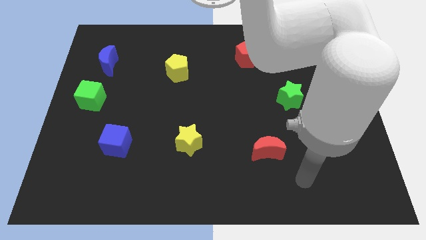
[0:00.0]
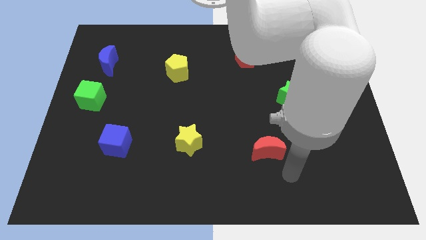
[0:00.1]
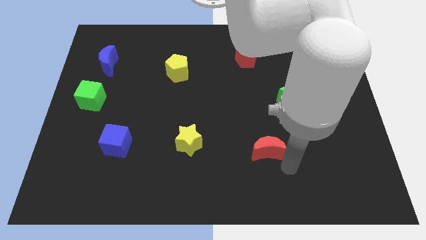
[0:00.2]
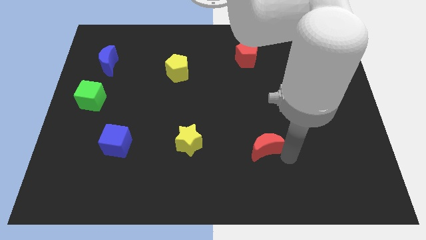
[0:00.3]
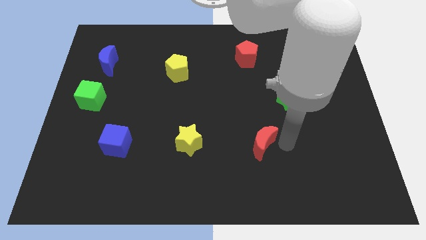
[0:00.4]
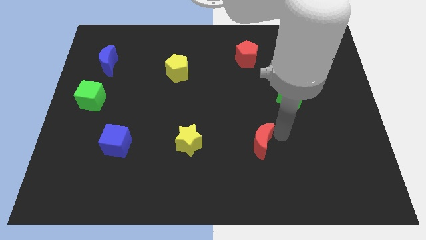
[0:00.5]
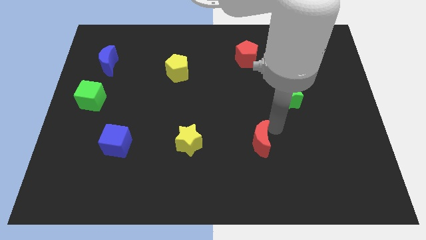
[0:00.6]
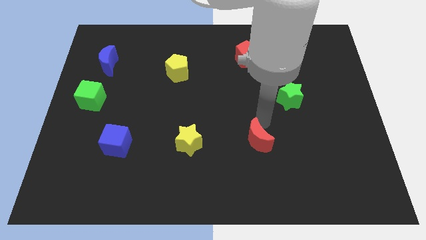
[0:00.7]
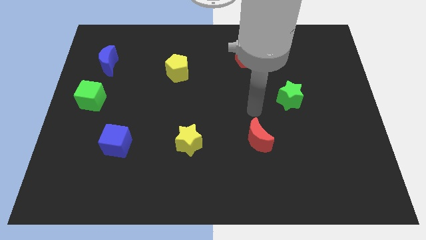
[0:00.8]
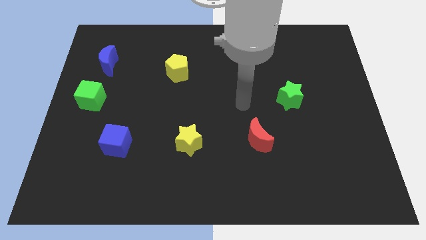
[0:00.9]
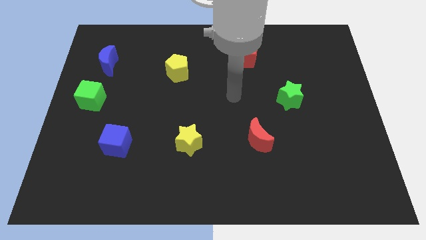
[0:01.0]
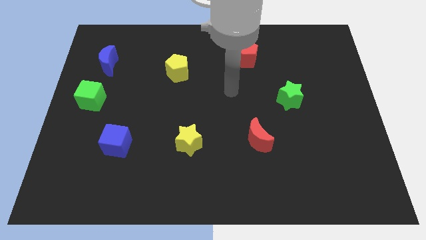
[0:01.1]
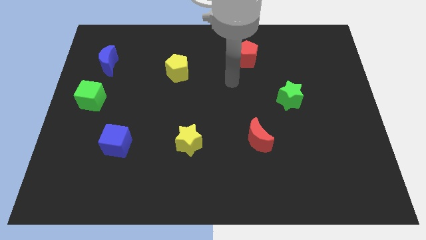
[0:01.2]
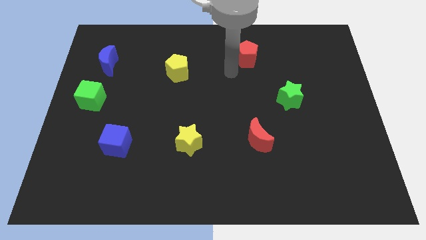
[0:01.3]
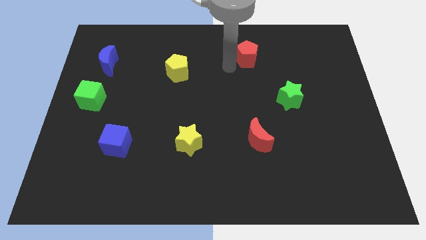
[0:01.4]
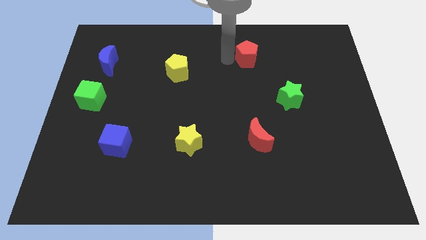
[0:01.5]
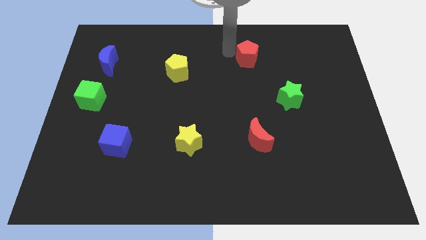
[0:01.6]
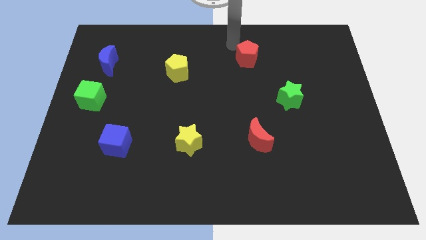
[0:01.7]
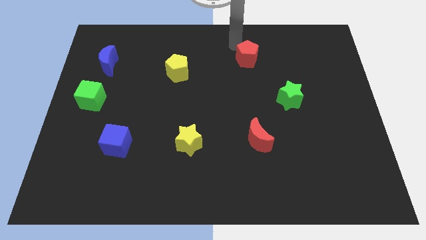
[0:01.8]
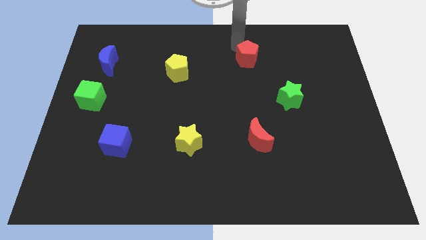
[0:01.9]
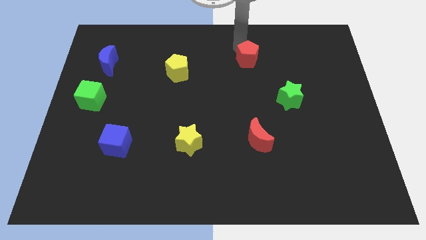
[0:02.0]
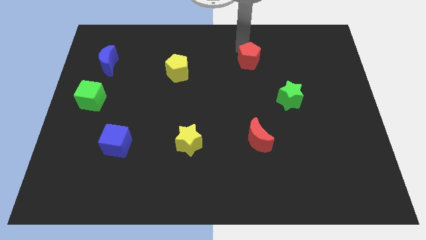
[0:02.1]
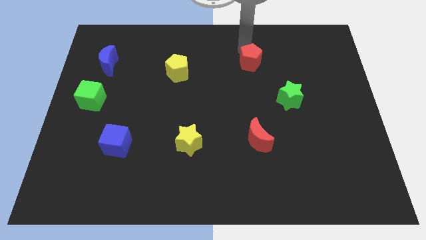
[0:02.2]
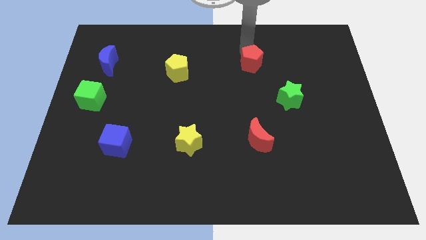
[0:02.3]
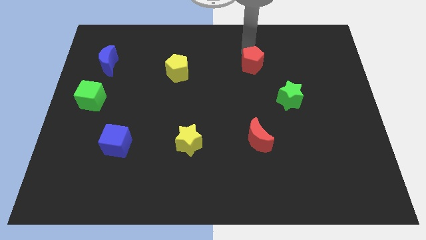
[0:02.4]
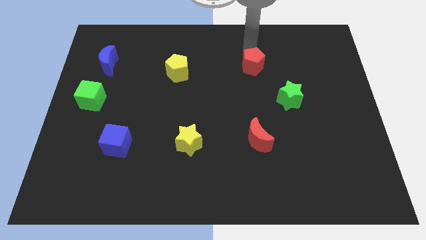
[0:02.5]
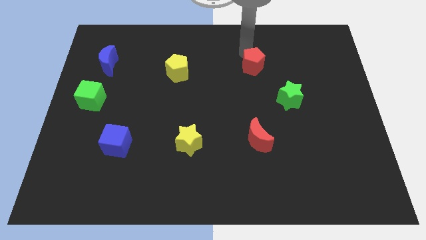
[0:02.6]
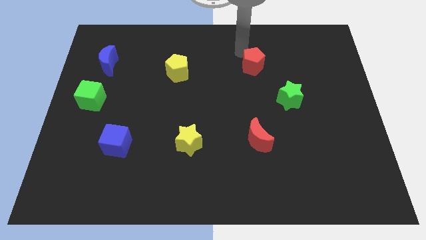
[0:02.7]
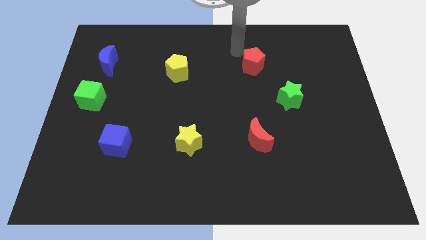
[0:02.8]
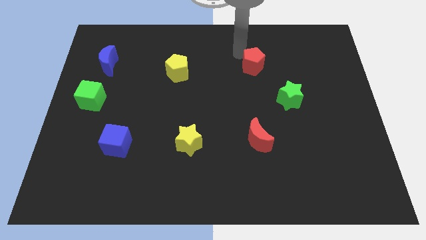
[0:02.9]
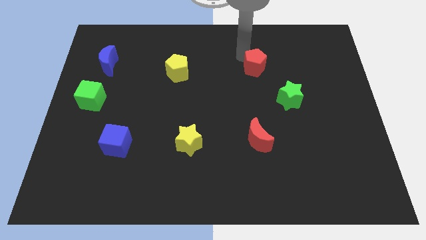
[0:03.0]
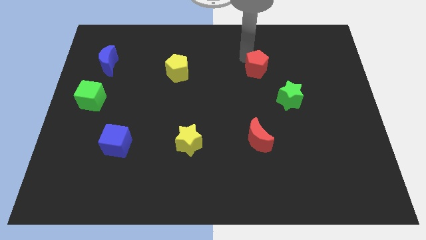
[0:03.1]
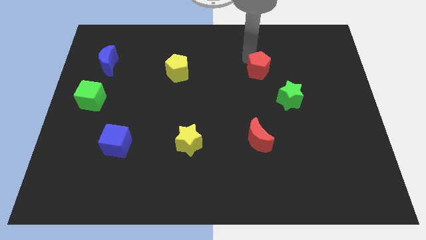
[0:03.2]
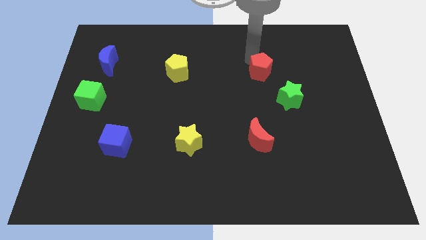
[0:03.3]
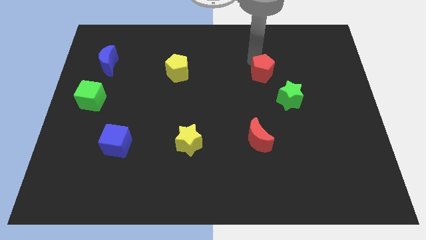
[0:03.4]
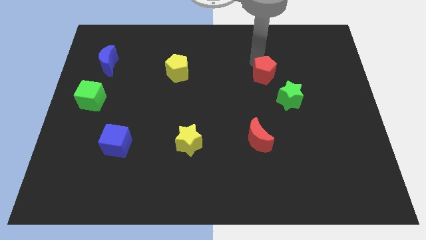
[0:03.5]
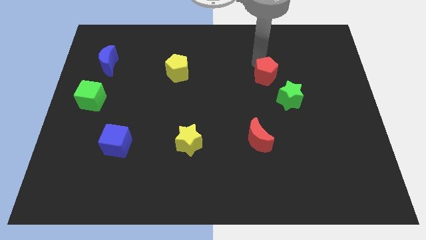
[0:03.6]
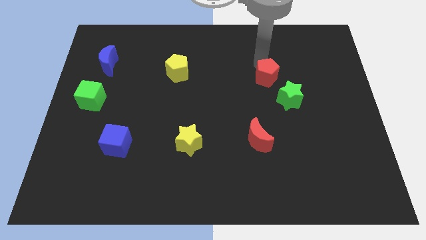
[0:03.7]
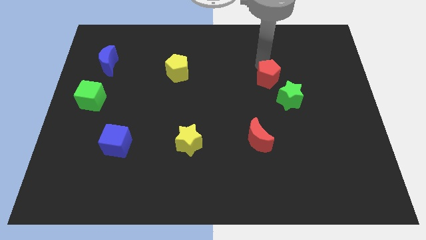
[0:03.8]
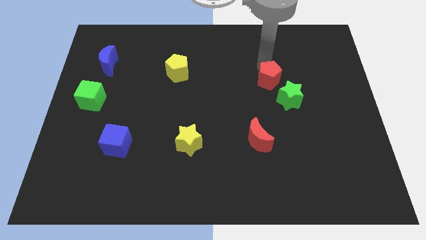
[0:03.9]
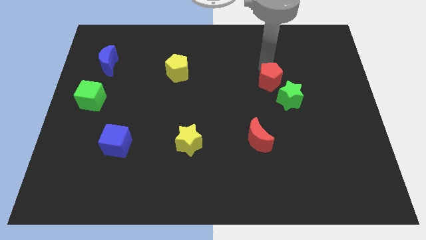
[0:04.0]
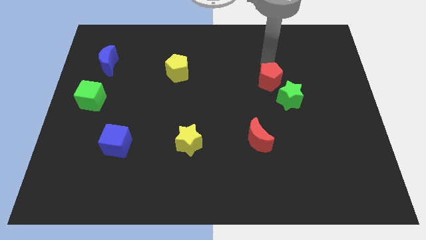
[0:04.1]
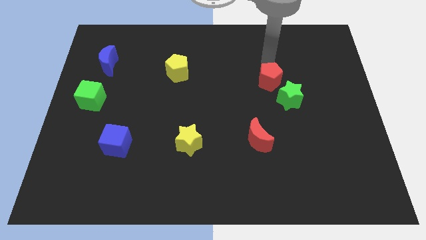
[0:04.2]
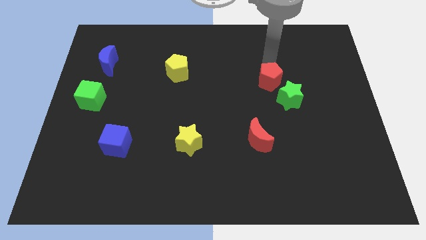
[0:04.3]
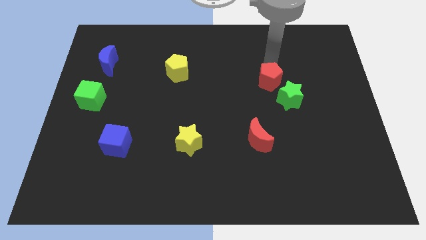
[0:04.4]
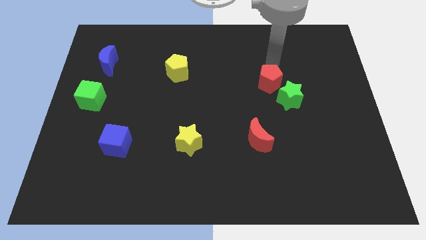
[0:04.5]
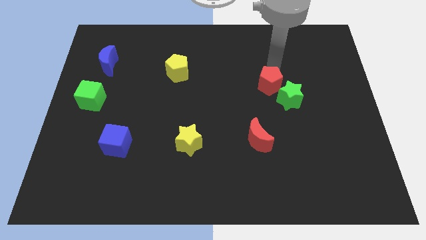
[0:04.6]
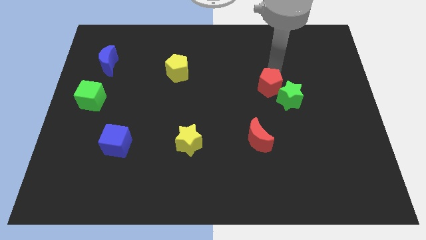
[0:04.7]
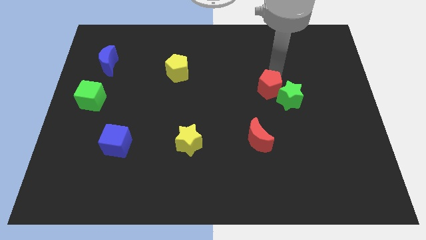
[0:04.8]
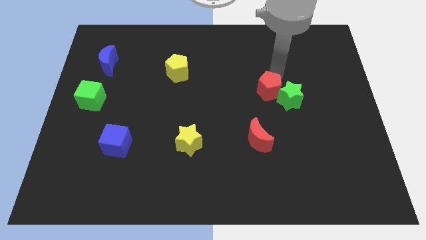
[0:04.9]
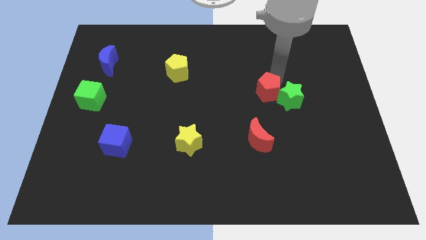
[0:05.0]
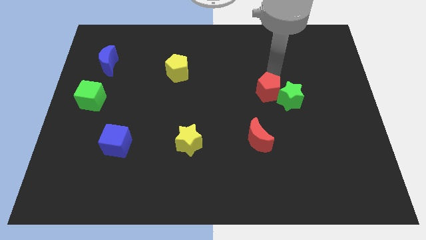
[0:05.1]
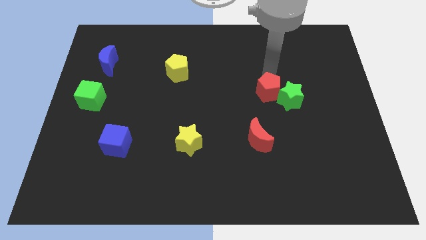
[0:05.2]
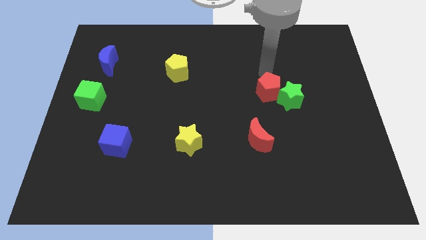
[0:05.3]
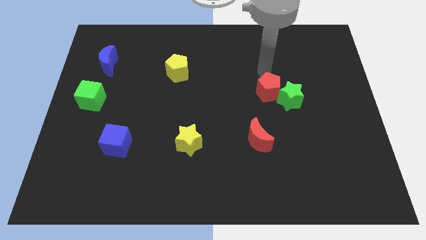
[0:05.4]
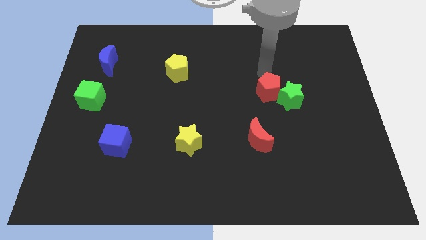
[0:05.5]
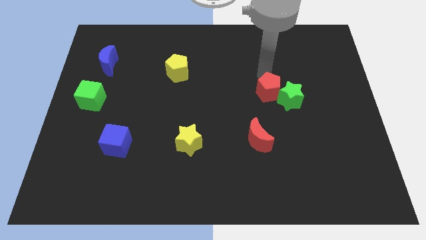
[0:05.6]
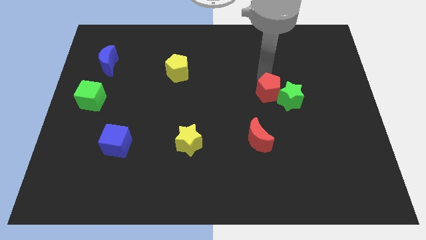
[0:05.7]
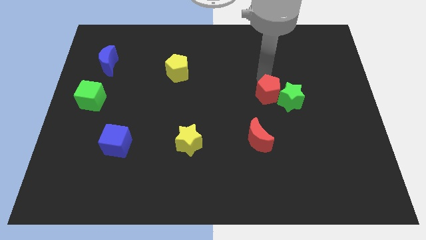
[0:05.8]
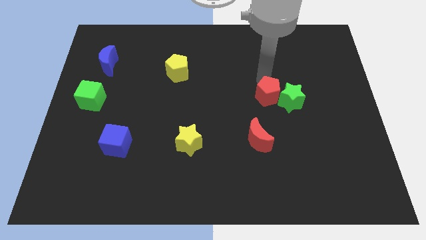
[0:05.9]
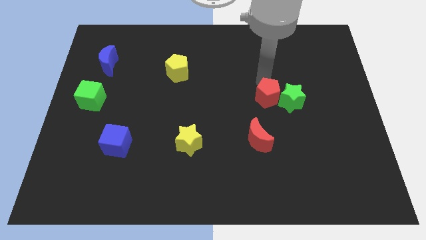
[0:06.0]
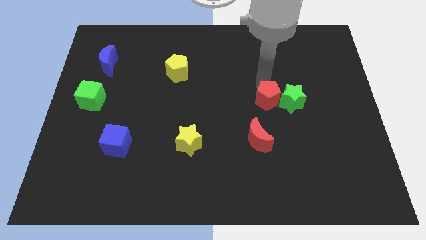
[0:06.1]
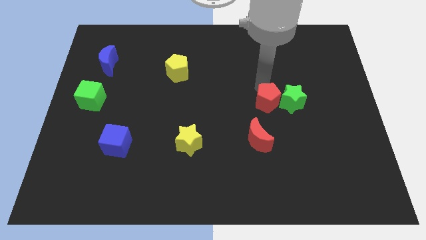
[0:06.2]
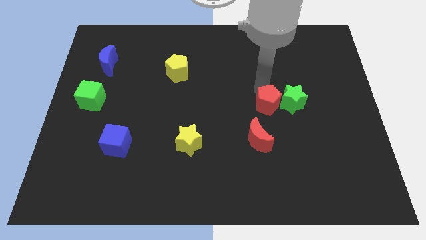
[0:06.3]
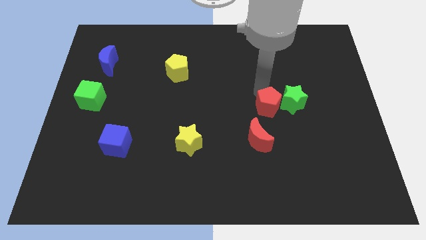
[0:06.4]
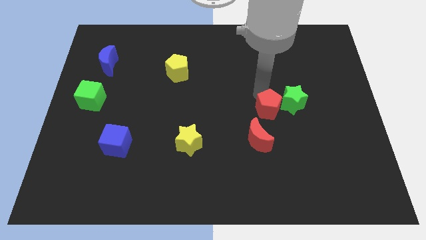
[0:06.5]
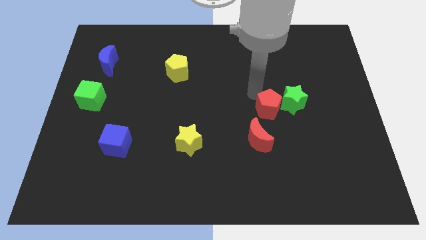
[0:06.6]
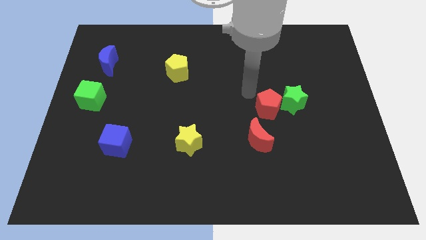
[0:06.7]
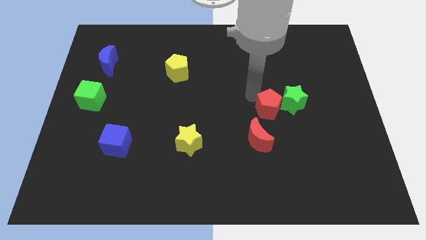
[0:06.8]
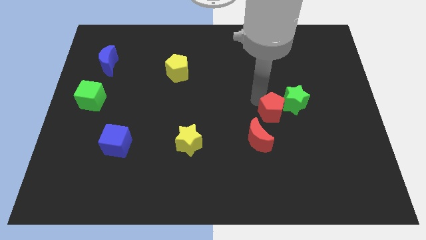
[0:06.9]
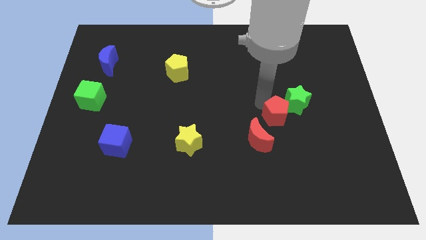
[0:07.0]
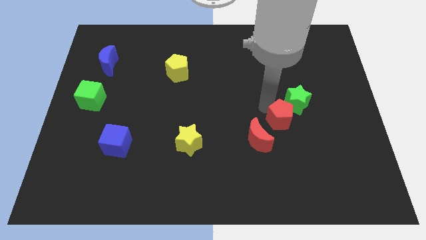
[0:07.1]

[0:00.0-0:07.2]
slide the red pentagon below the green star

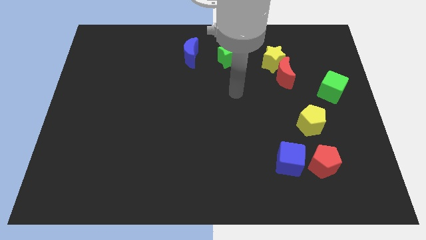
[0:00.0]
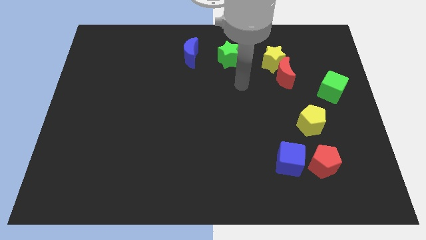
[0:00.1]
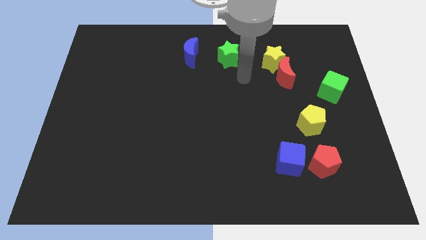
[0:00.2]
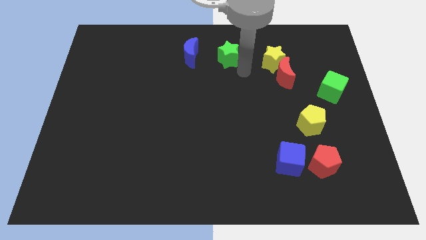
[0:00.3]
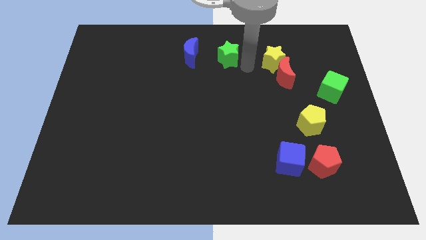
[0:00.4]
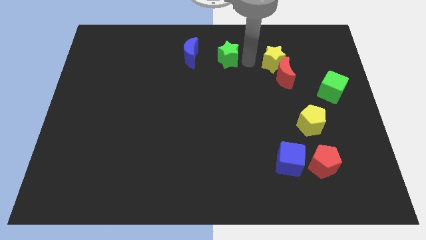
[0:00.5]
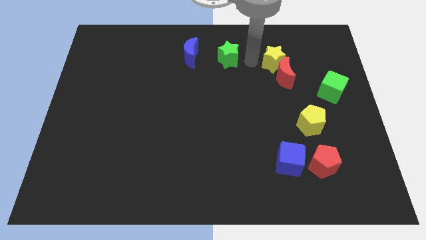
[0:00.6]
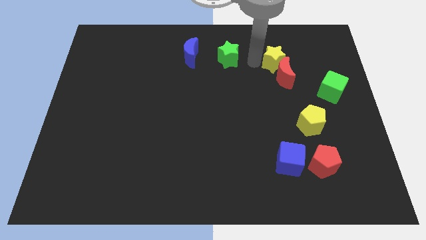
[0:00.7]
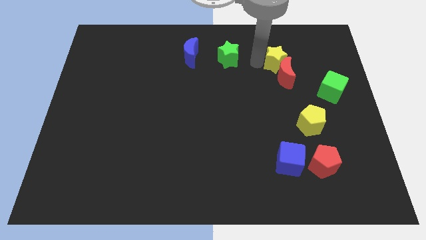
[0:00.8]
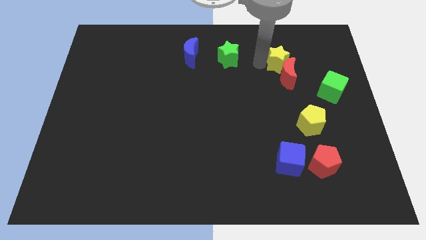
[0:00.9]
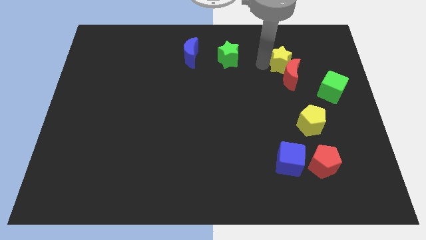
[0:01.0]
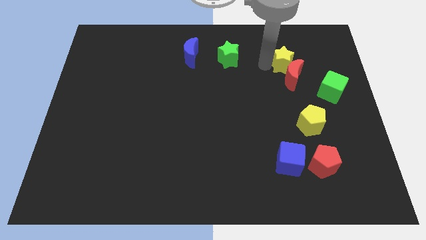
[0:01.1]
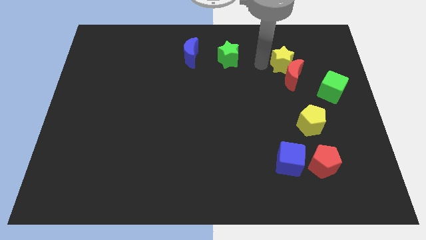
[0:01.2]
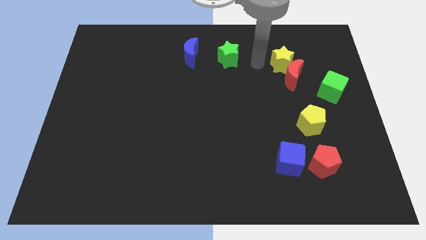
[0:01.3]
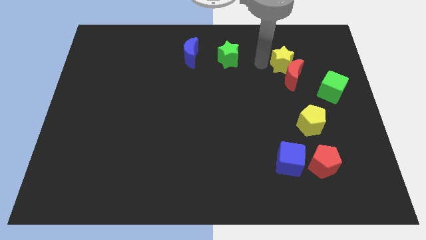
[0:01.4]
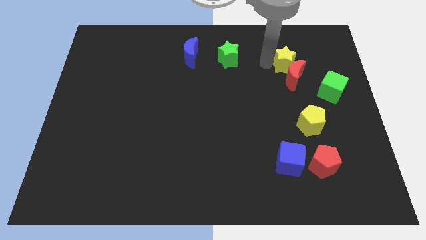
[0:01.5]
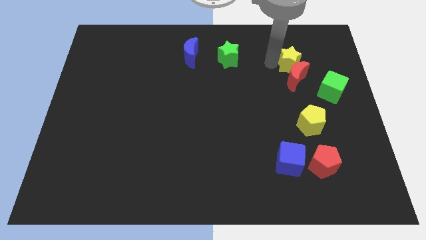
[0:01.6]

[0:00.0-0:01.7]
slide the yellow star diagonally up and to the left of the green cube
